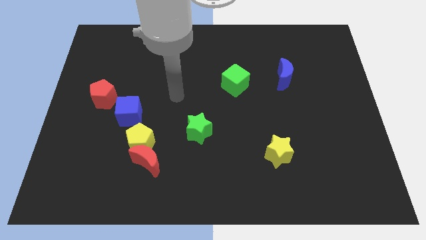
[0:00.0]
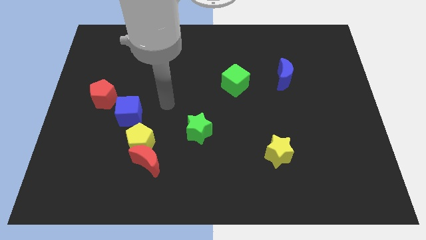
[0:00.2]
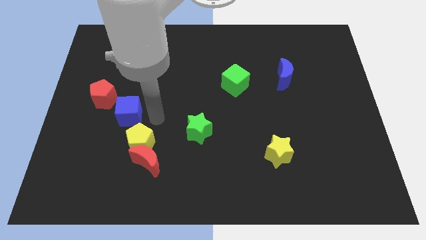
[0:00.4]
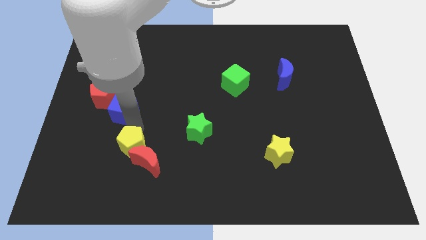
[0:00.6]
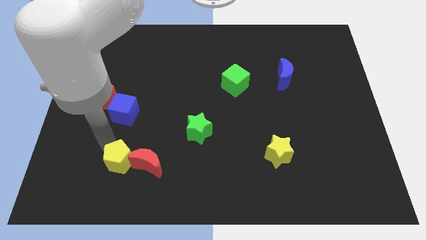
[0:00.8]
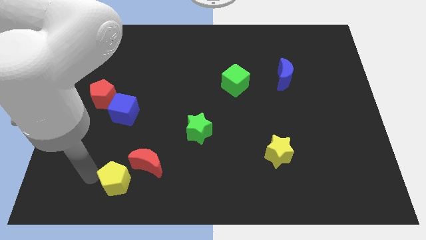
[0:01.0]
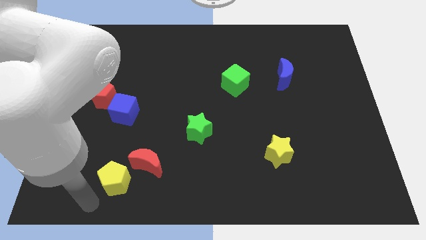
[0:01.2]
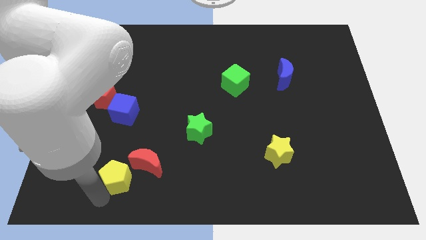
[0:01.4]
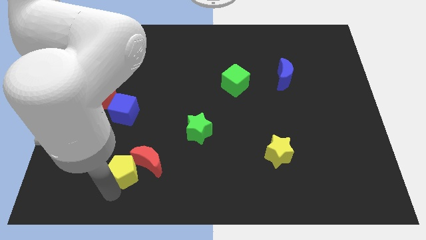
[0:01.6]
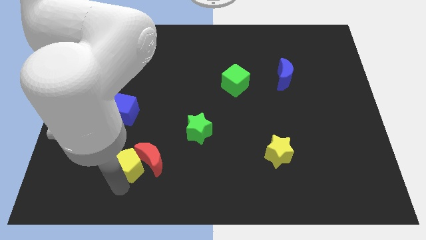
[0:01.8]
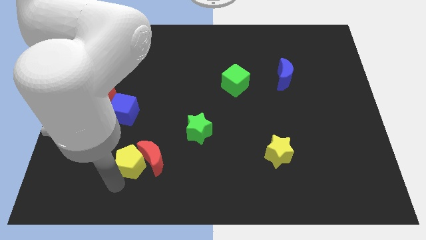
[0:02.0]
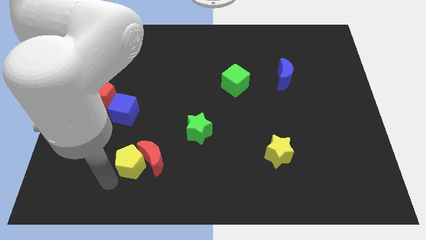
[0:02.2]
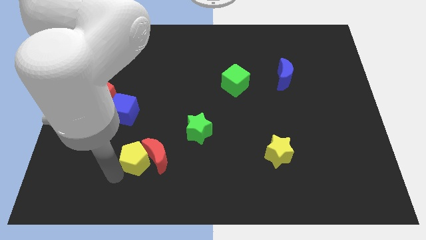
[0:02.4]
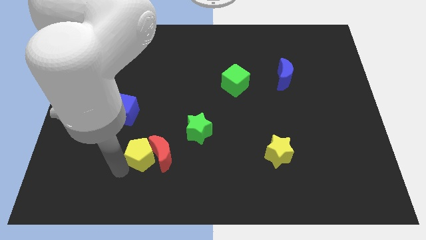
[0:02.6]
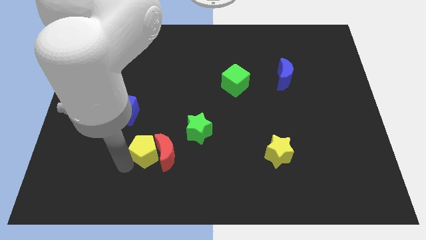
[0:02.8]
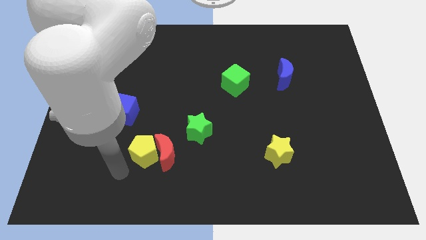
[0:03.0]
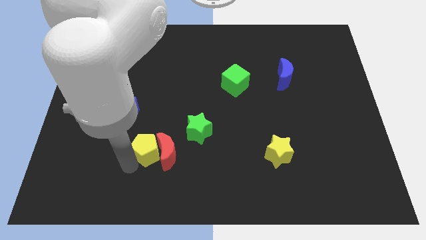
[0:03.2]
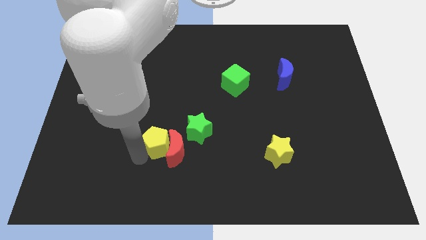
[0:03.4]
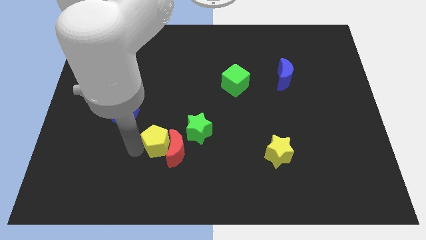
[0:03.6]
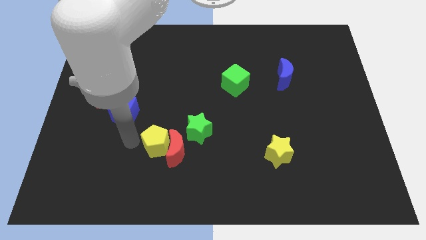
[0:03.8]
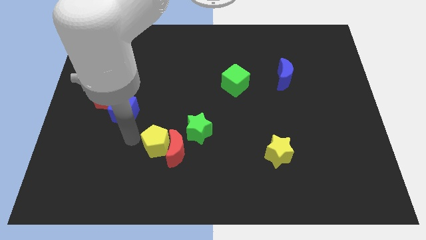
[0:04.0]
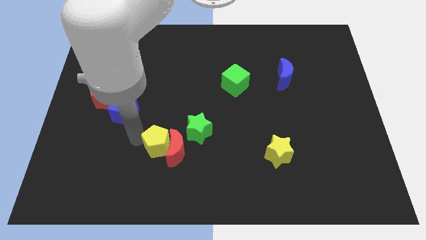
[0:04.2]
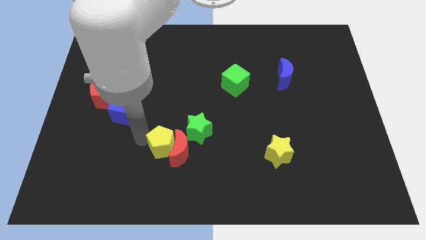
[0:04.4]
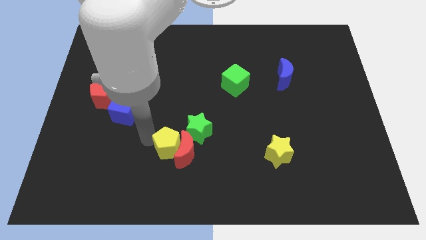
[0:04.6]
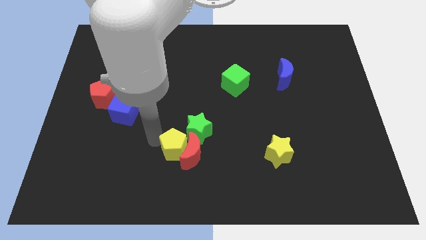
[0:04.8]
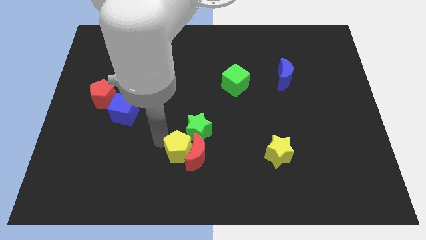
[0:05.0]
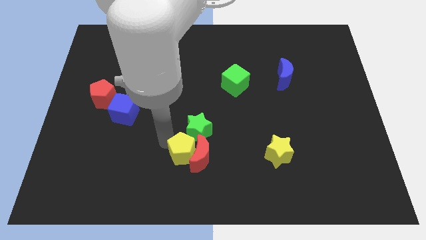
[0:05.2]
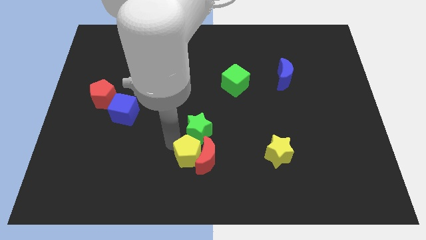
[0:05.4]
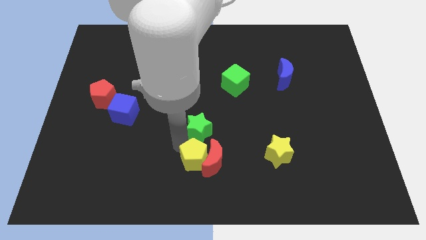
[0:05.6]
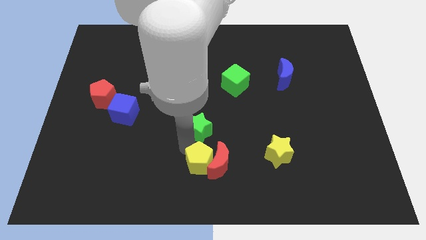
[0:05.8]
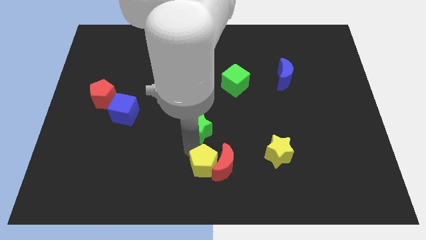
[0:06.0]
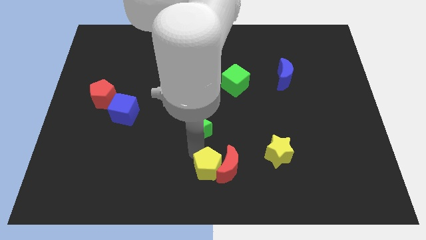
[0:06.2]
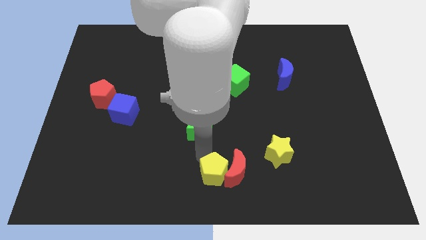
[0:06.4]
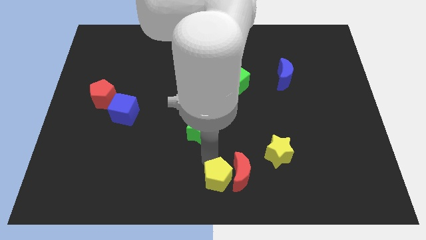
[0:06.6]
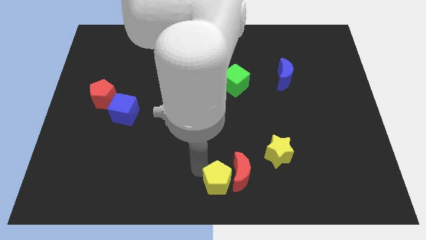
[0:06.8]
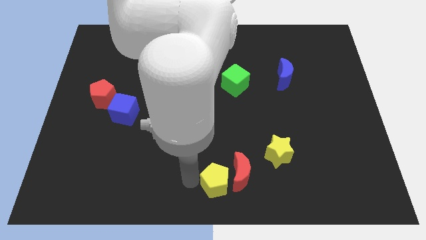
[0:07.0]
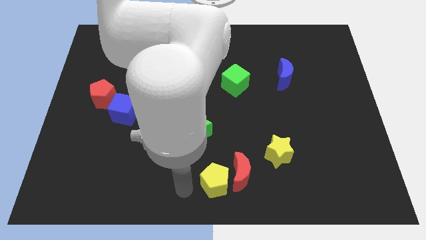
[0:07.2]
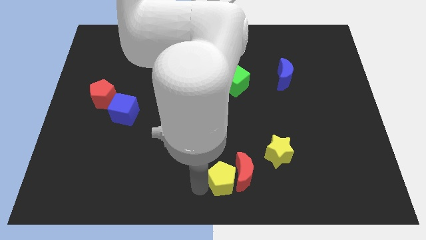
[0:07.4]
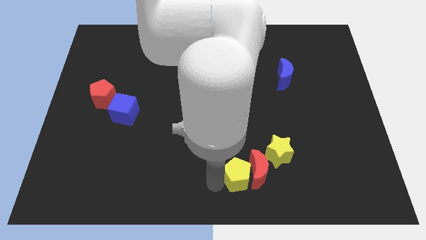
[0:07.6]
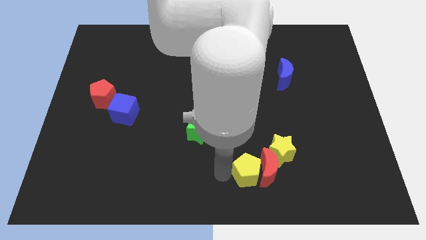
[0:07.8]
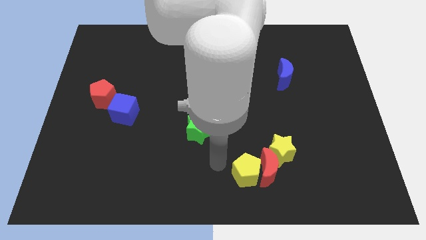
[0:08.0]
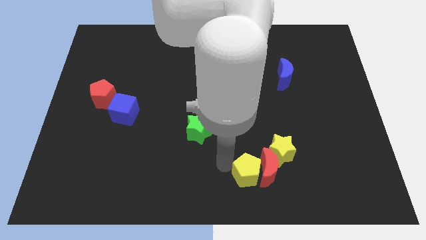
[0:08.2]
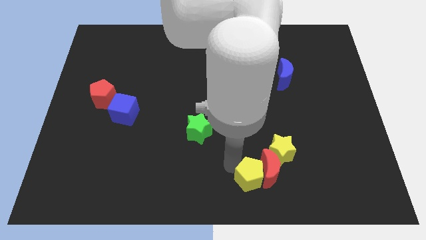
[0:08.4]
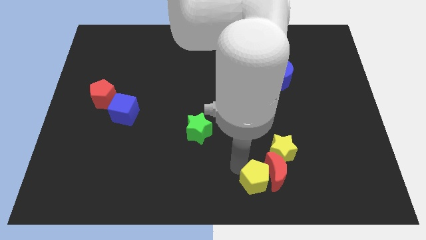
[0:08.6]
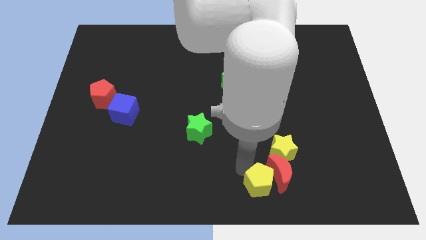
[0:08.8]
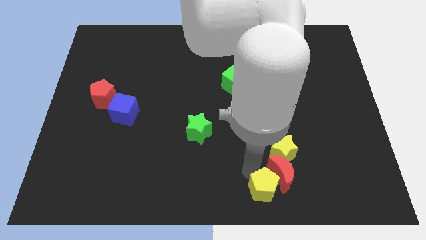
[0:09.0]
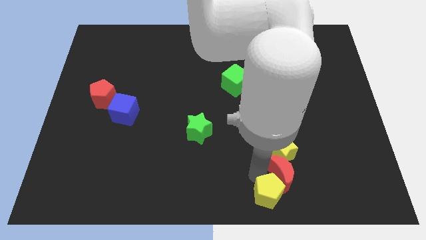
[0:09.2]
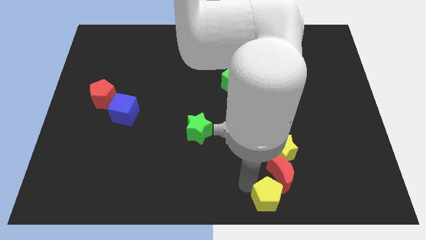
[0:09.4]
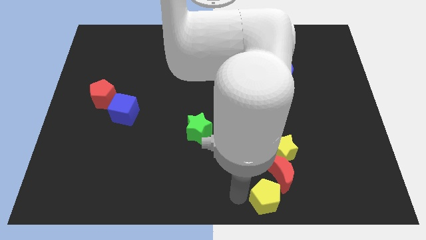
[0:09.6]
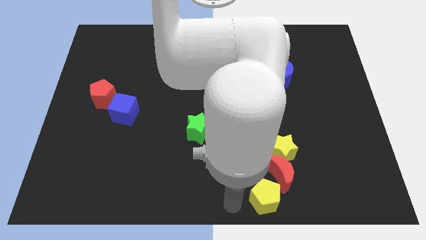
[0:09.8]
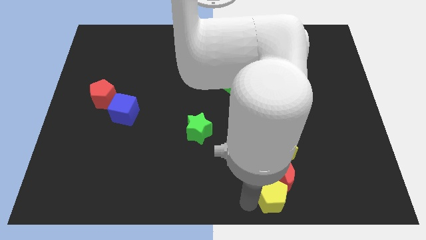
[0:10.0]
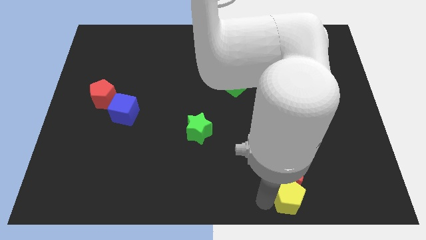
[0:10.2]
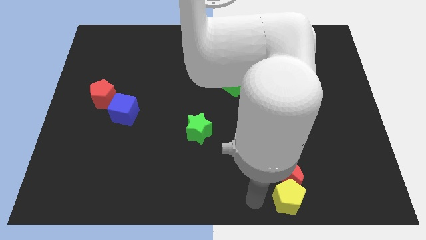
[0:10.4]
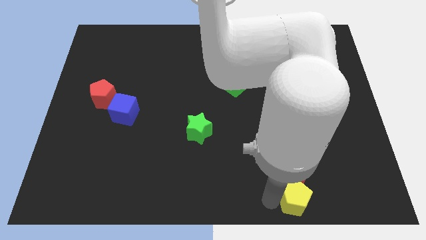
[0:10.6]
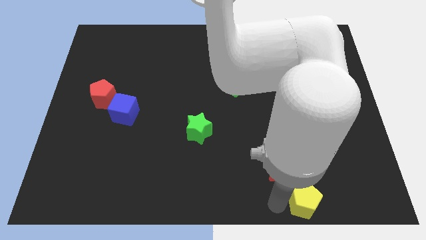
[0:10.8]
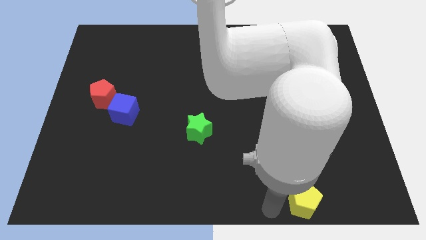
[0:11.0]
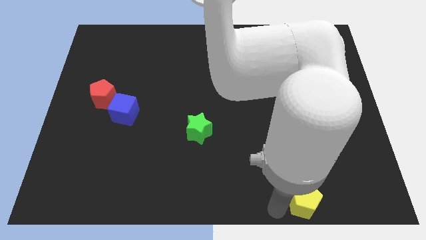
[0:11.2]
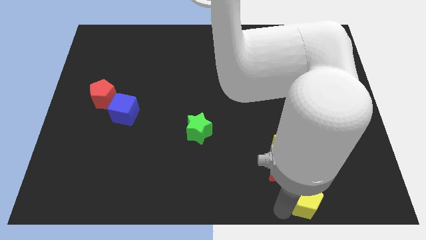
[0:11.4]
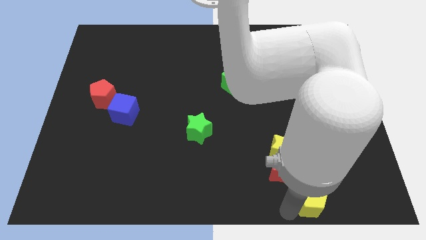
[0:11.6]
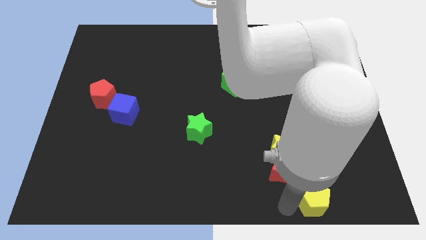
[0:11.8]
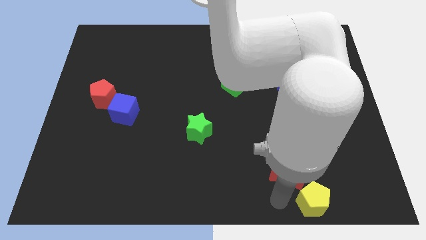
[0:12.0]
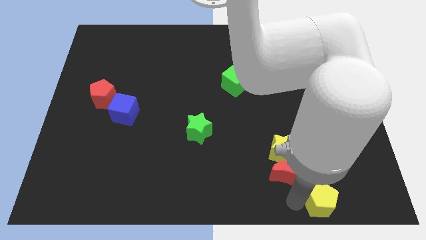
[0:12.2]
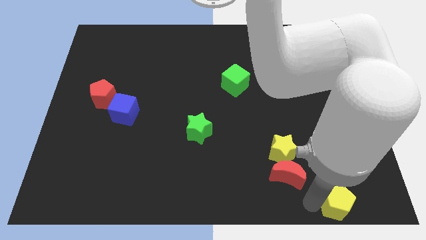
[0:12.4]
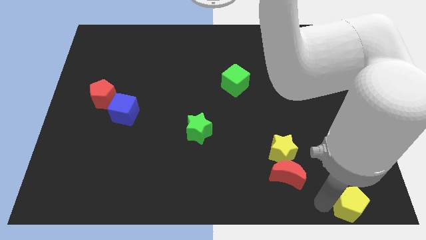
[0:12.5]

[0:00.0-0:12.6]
slide the yellow pentagon to the bottom right of the board
